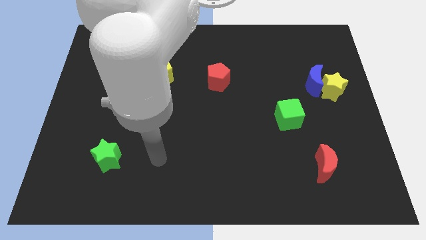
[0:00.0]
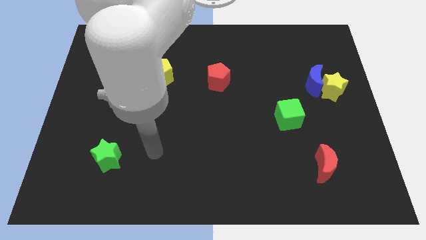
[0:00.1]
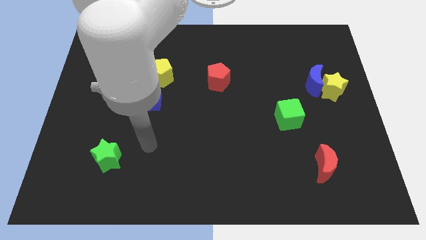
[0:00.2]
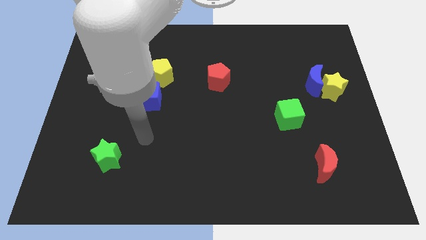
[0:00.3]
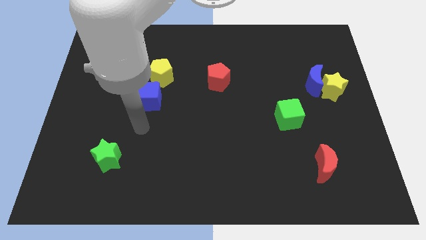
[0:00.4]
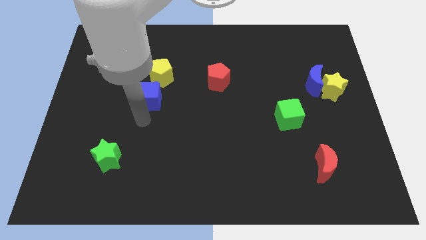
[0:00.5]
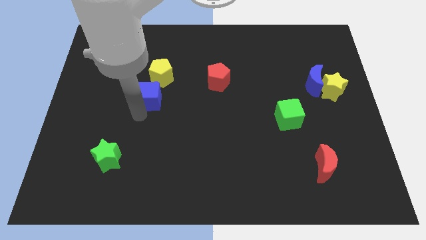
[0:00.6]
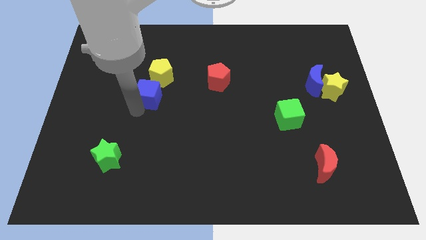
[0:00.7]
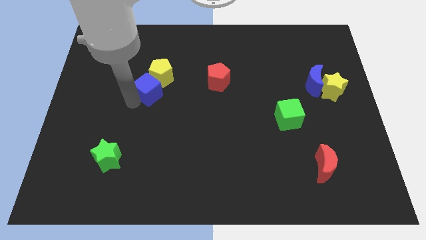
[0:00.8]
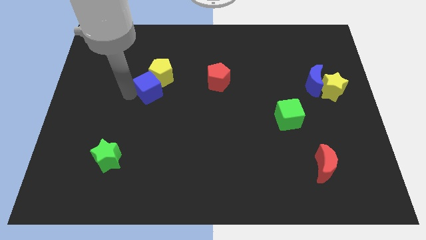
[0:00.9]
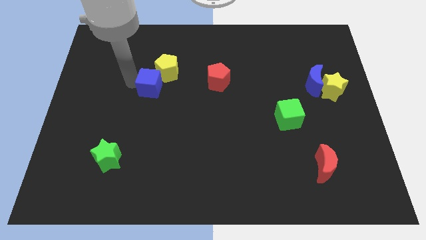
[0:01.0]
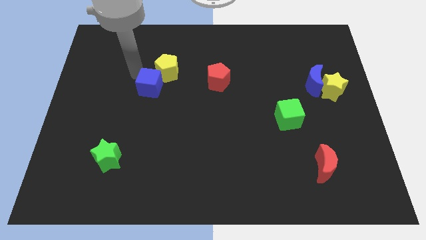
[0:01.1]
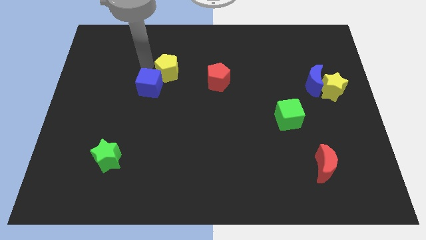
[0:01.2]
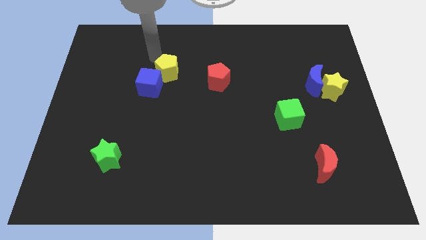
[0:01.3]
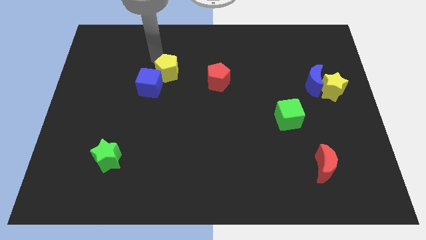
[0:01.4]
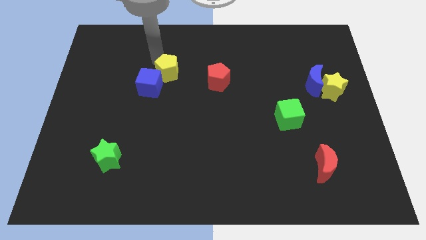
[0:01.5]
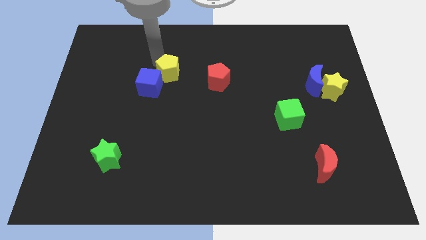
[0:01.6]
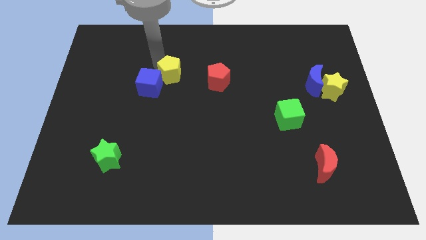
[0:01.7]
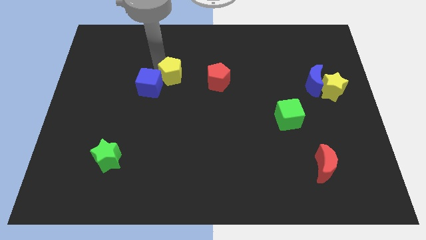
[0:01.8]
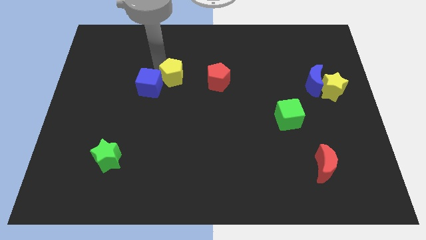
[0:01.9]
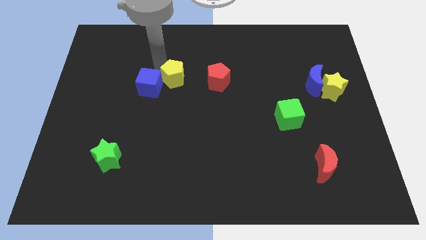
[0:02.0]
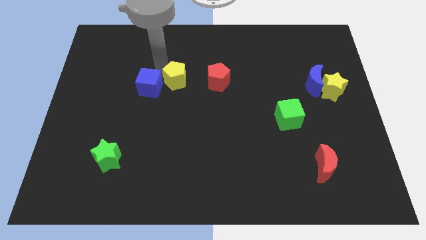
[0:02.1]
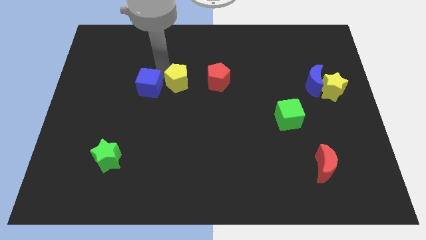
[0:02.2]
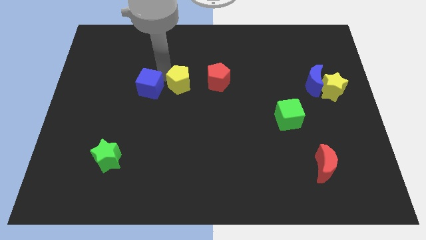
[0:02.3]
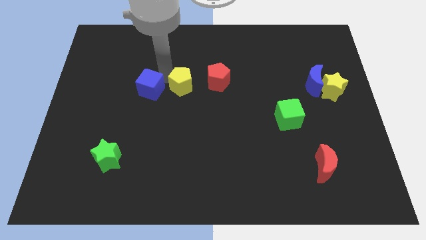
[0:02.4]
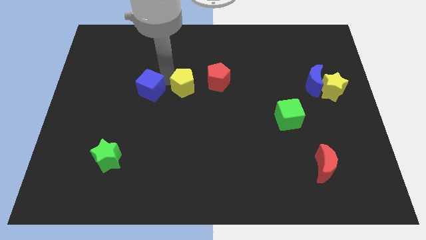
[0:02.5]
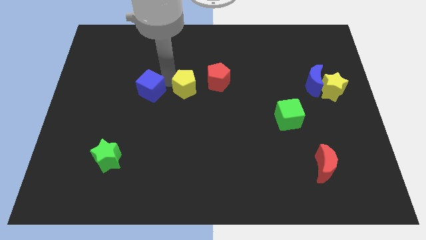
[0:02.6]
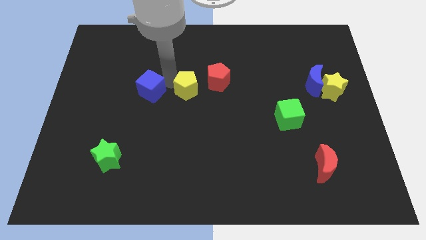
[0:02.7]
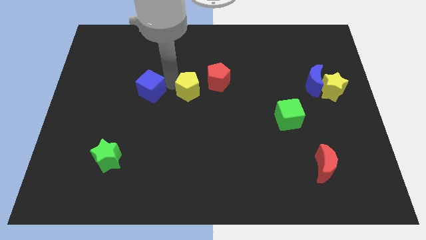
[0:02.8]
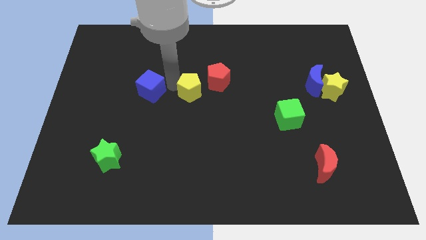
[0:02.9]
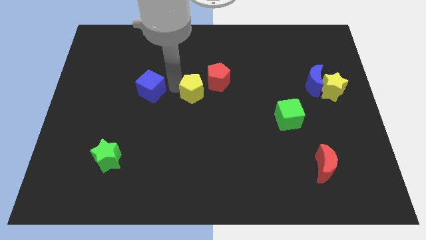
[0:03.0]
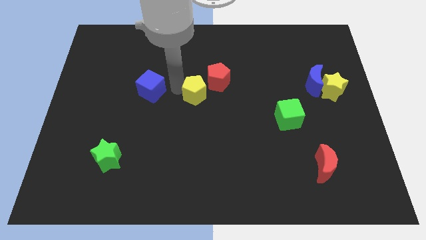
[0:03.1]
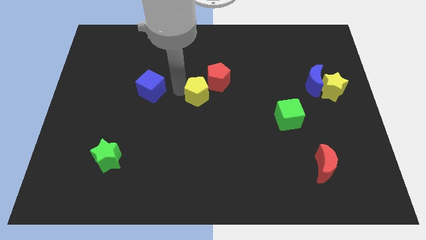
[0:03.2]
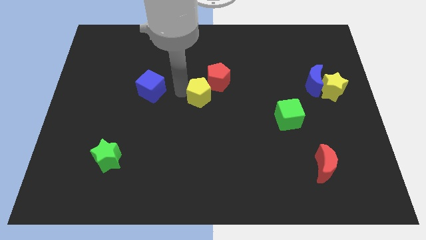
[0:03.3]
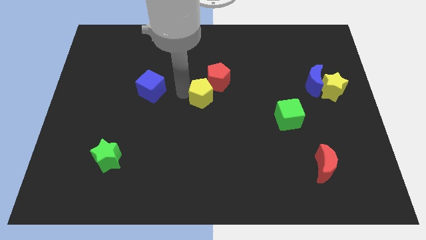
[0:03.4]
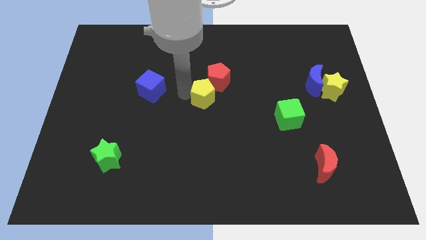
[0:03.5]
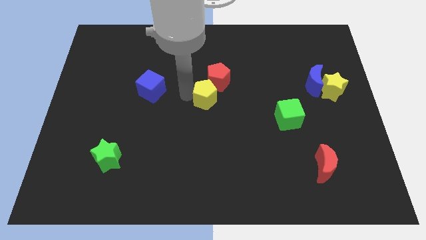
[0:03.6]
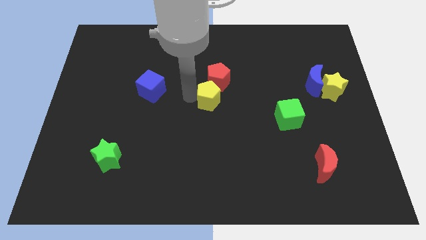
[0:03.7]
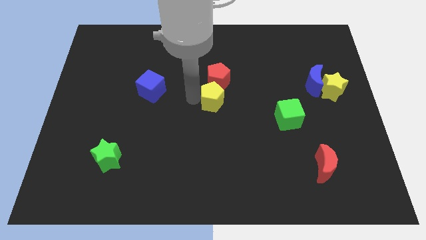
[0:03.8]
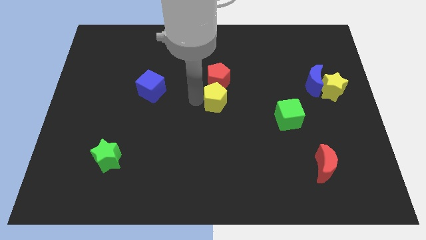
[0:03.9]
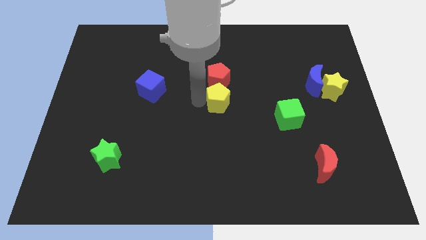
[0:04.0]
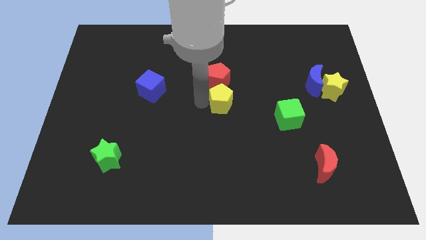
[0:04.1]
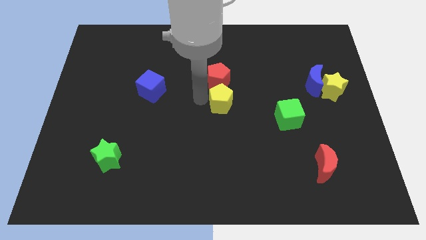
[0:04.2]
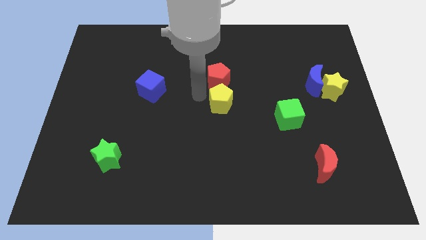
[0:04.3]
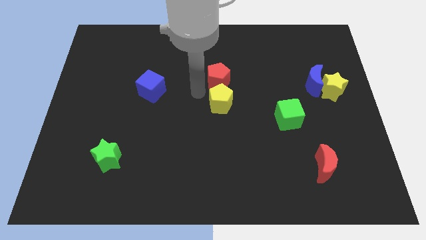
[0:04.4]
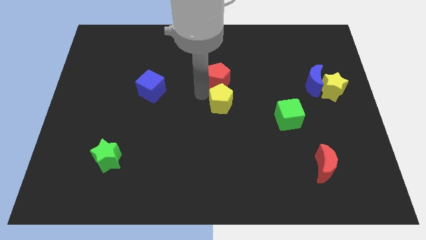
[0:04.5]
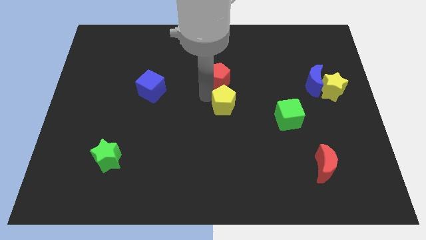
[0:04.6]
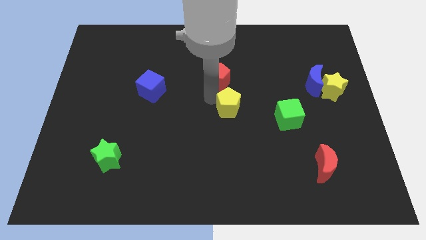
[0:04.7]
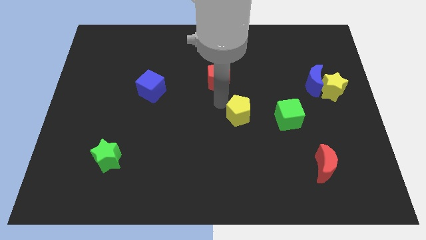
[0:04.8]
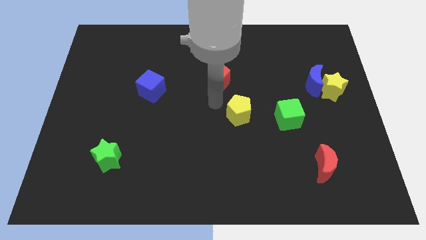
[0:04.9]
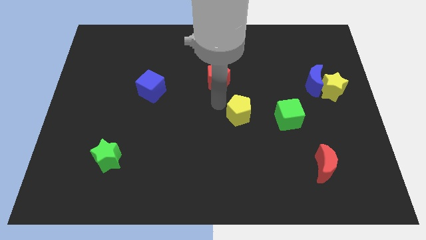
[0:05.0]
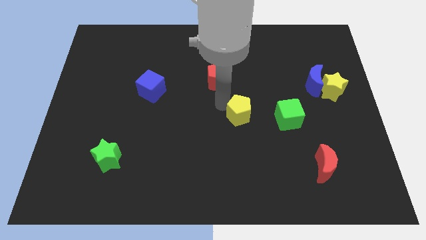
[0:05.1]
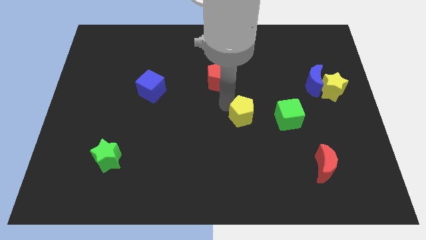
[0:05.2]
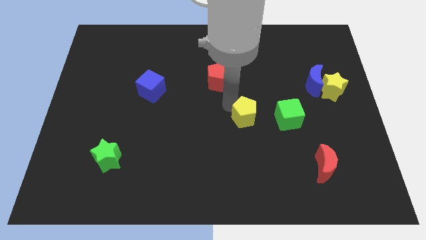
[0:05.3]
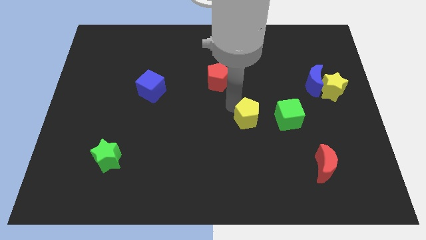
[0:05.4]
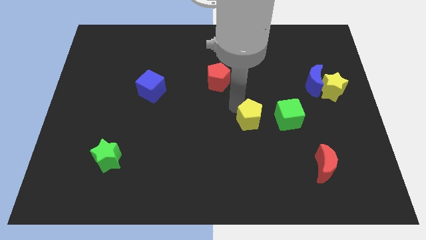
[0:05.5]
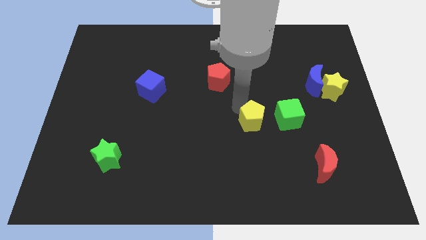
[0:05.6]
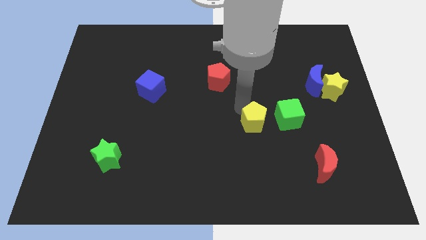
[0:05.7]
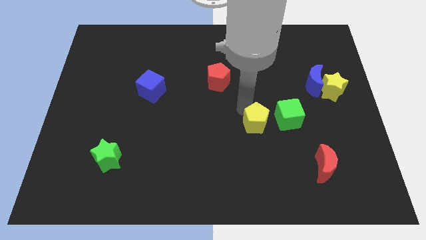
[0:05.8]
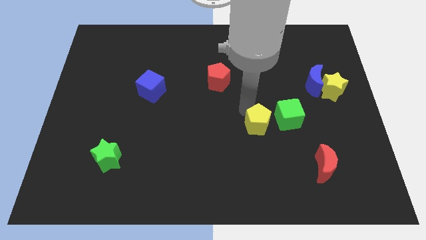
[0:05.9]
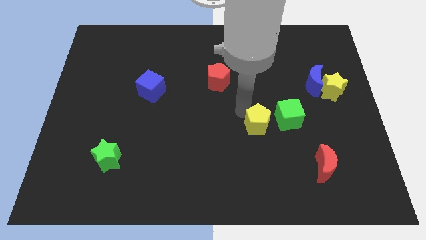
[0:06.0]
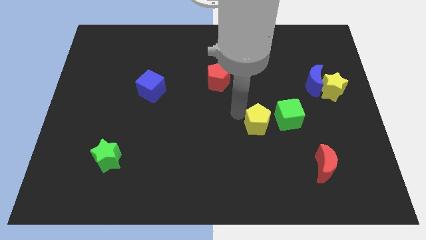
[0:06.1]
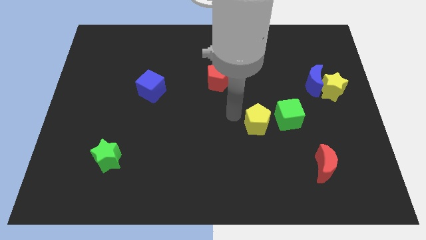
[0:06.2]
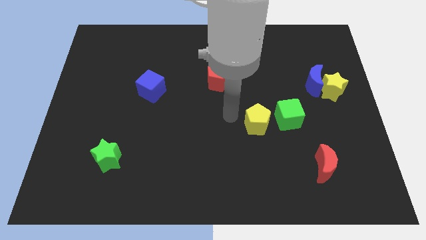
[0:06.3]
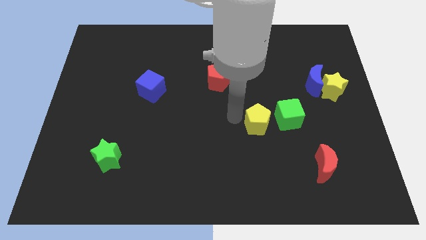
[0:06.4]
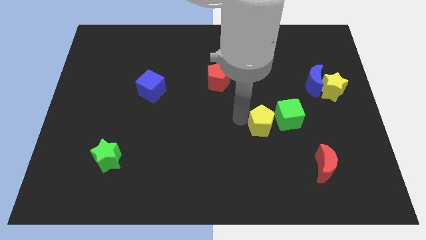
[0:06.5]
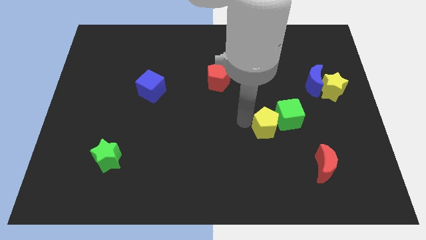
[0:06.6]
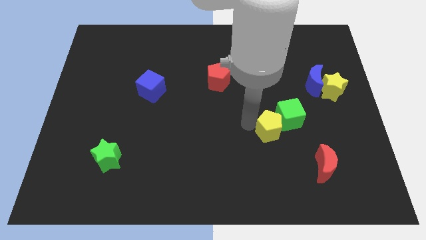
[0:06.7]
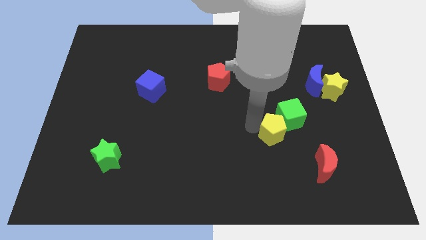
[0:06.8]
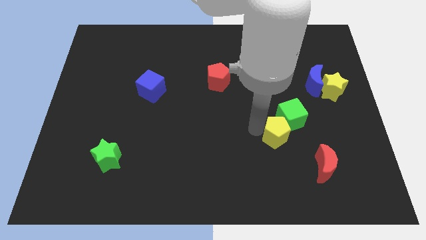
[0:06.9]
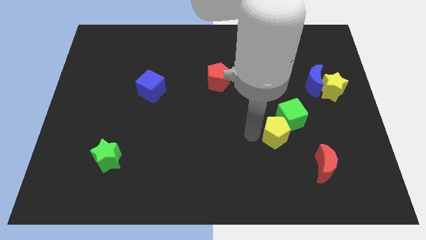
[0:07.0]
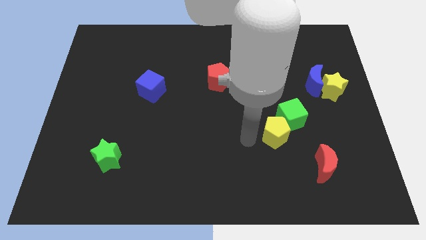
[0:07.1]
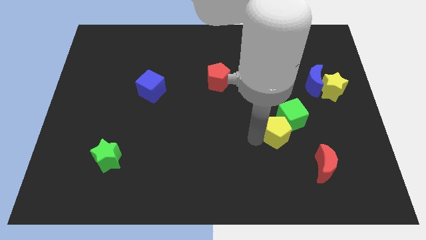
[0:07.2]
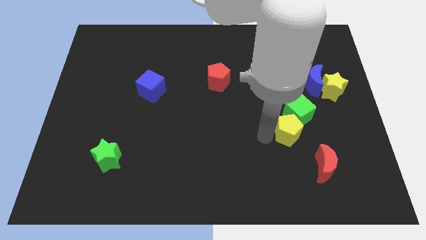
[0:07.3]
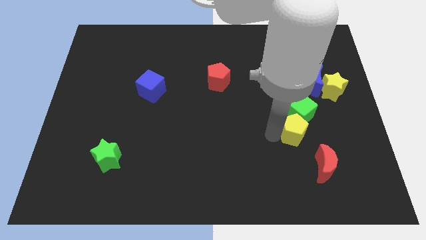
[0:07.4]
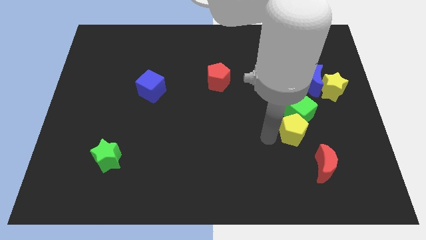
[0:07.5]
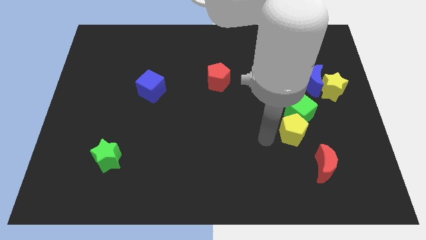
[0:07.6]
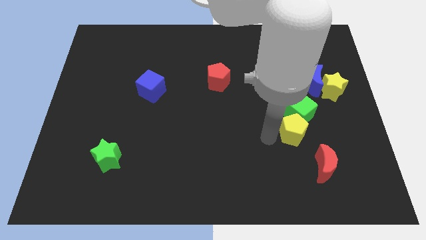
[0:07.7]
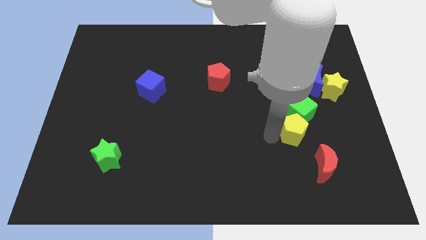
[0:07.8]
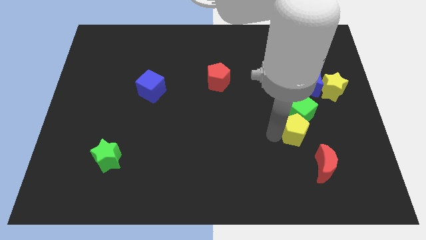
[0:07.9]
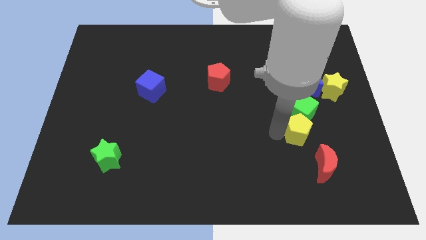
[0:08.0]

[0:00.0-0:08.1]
move the yellow pentagon above the red moon
